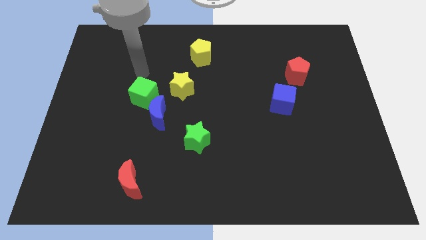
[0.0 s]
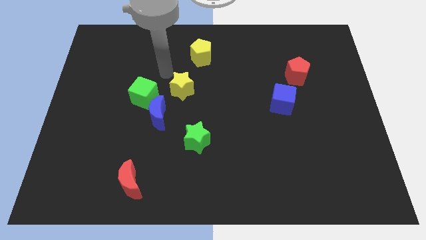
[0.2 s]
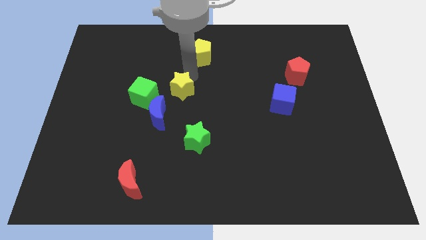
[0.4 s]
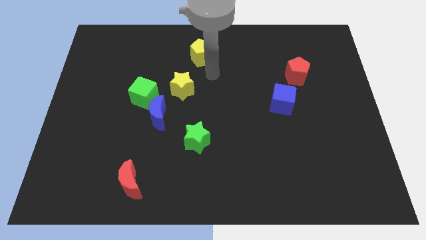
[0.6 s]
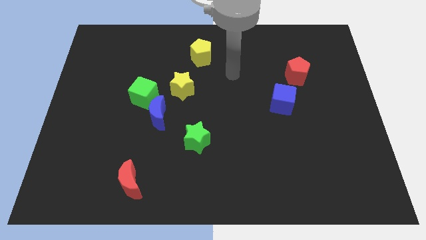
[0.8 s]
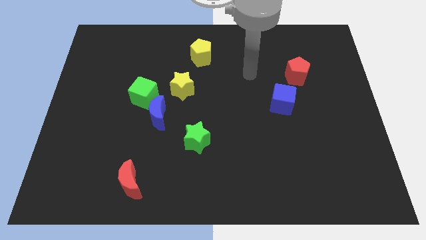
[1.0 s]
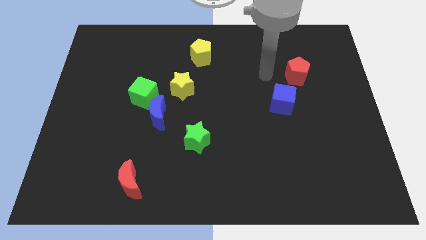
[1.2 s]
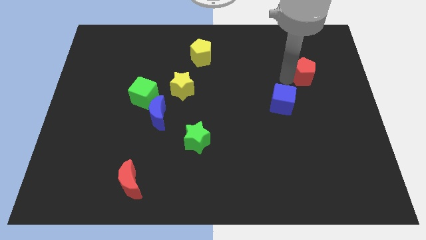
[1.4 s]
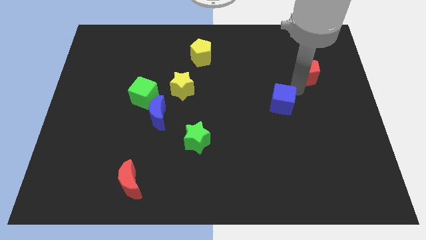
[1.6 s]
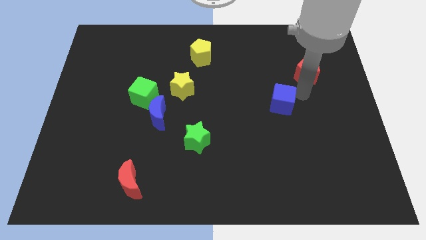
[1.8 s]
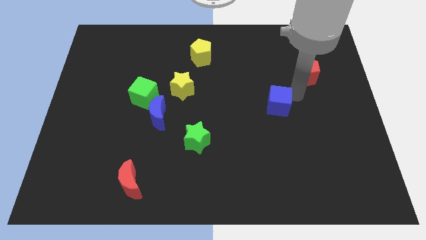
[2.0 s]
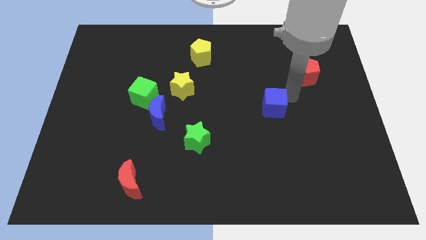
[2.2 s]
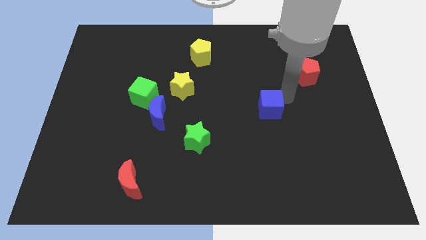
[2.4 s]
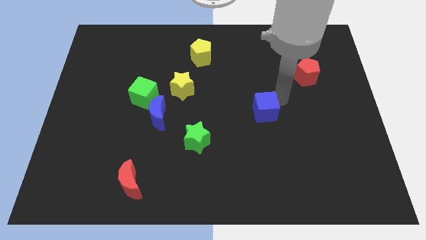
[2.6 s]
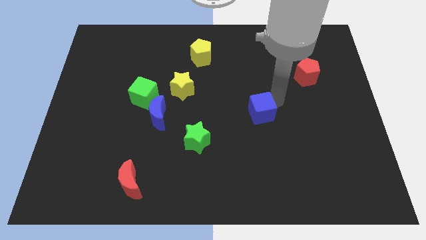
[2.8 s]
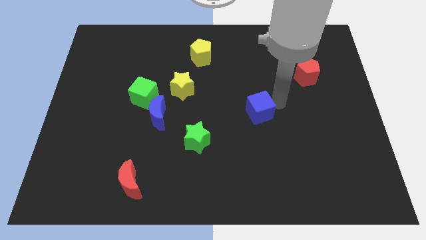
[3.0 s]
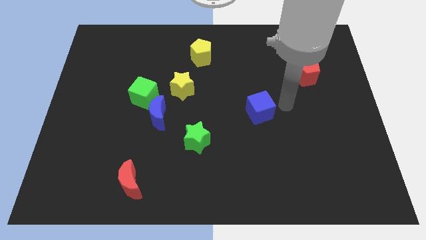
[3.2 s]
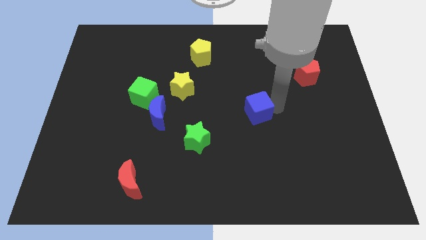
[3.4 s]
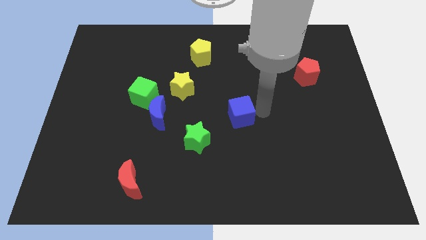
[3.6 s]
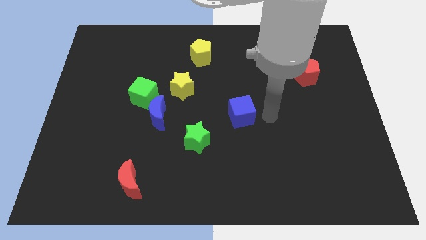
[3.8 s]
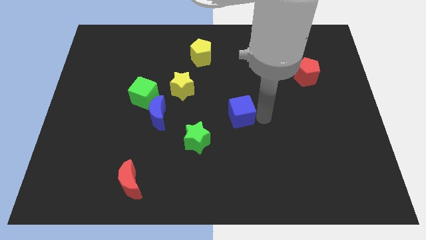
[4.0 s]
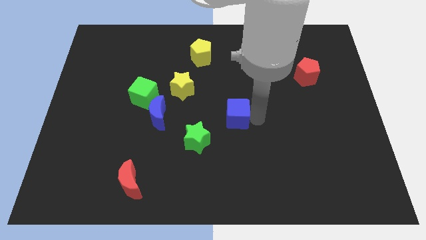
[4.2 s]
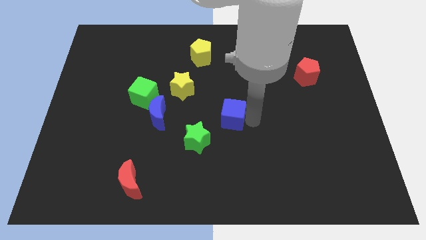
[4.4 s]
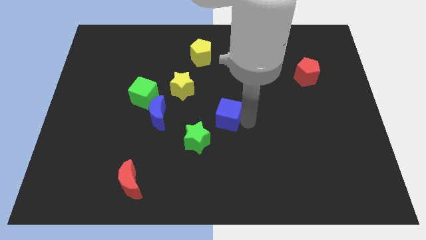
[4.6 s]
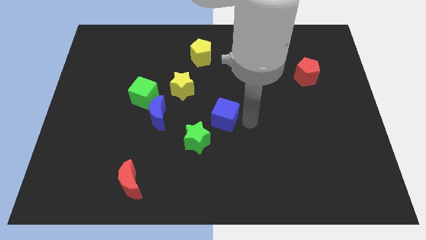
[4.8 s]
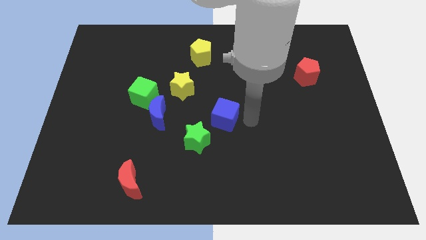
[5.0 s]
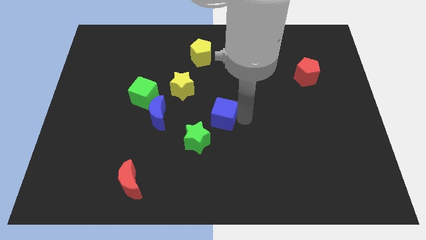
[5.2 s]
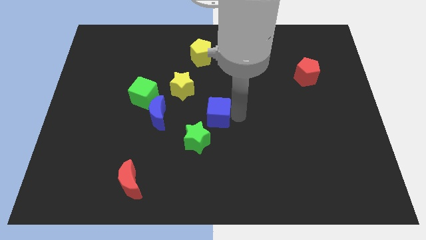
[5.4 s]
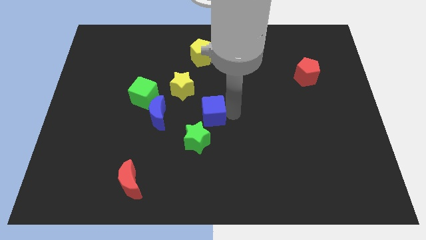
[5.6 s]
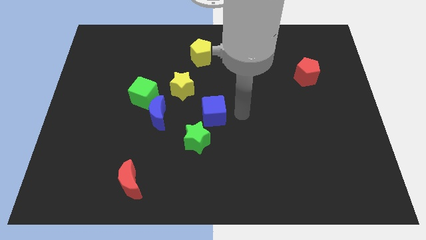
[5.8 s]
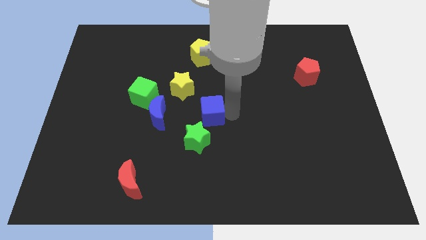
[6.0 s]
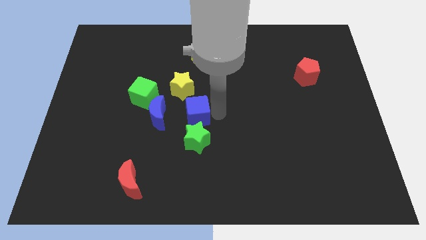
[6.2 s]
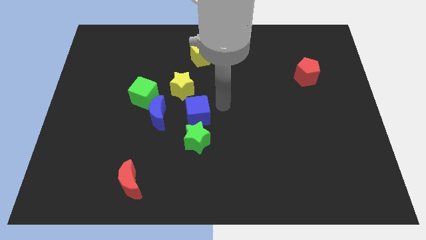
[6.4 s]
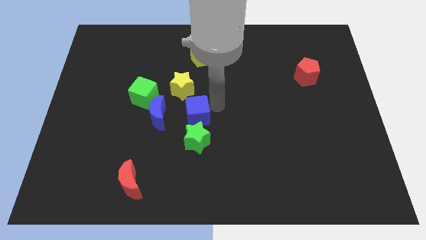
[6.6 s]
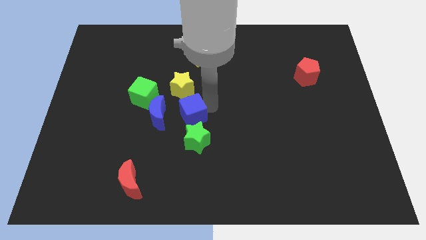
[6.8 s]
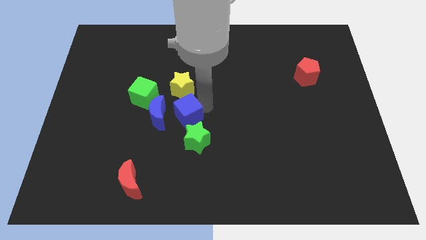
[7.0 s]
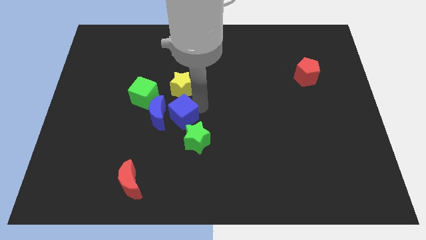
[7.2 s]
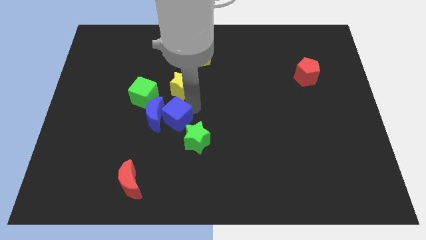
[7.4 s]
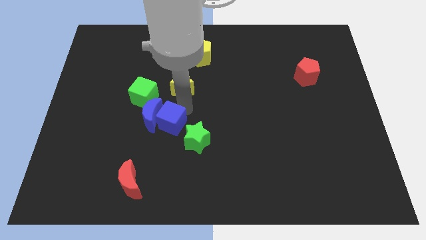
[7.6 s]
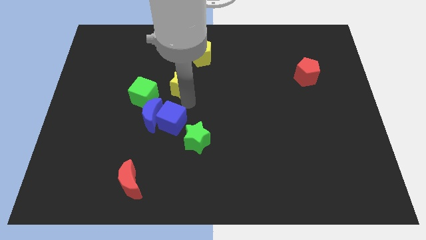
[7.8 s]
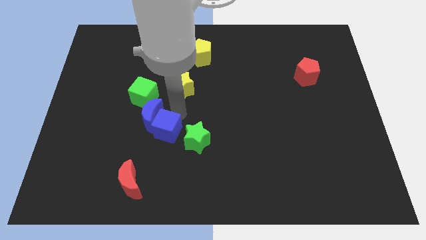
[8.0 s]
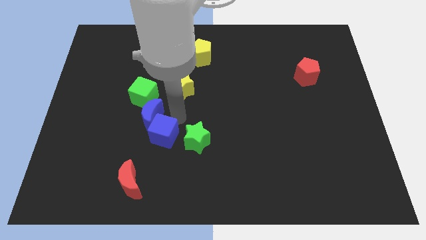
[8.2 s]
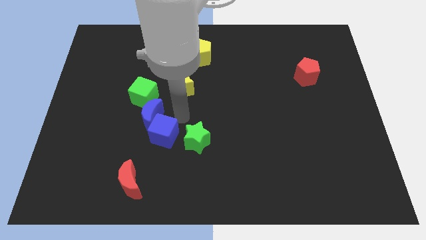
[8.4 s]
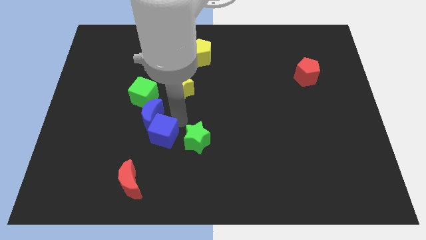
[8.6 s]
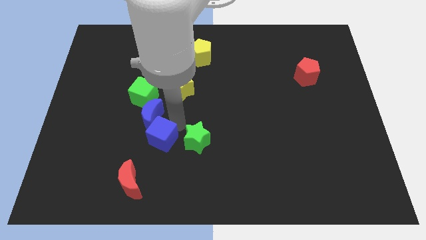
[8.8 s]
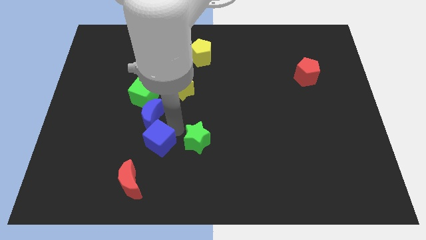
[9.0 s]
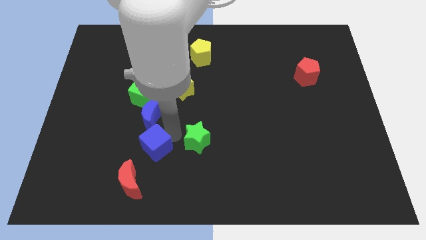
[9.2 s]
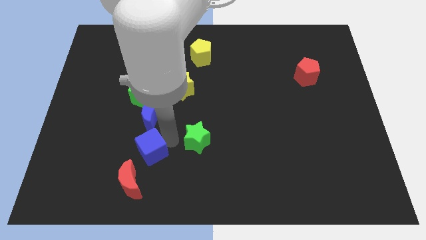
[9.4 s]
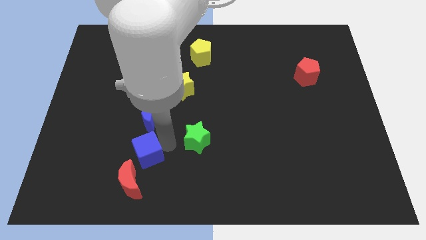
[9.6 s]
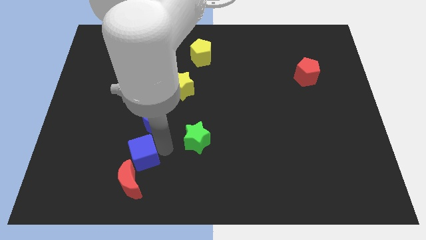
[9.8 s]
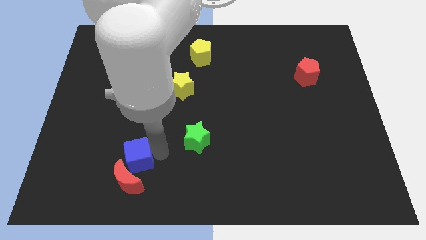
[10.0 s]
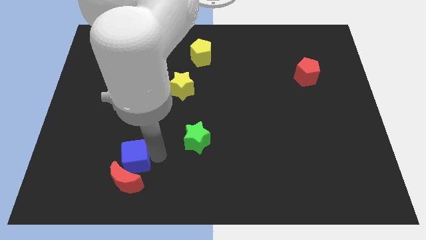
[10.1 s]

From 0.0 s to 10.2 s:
slide the blue cube diagonally up and to the left of the red moon

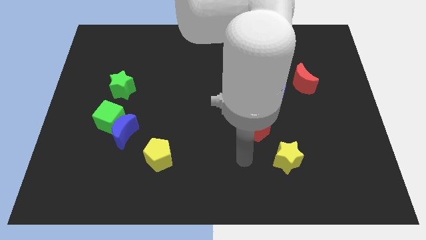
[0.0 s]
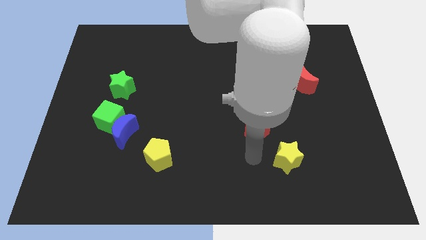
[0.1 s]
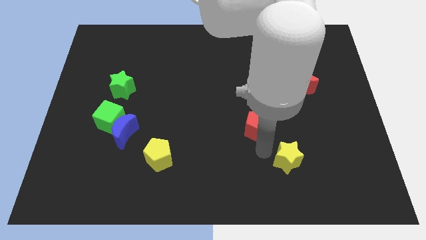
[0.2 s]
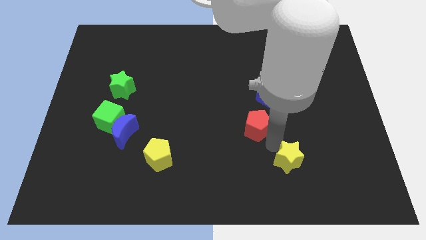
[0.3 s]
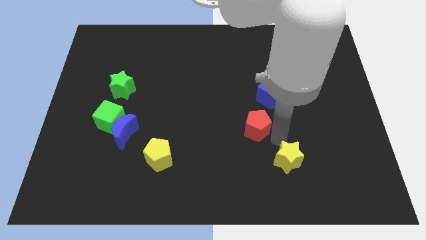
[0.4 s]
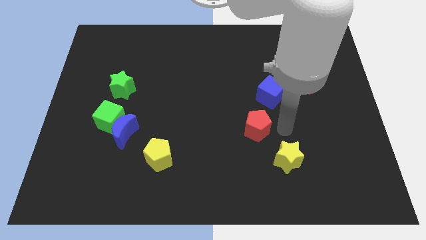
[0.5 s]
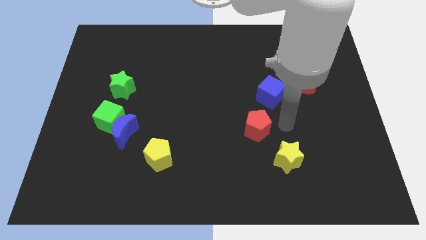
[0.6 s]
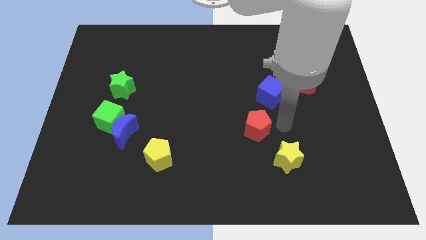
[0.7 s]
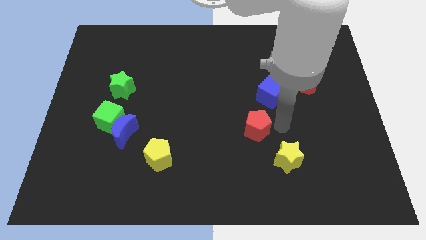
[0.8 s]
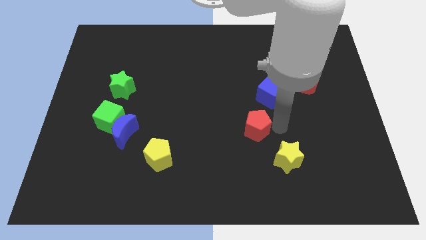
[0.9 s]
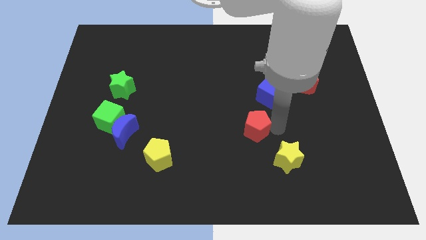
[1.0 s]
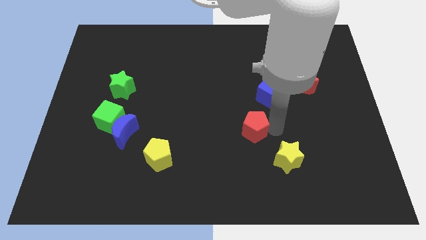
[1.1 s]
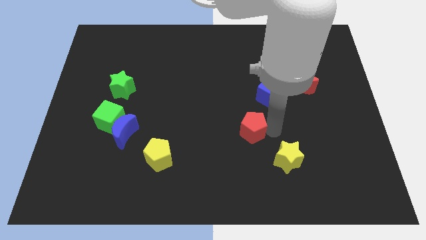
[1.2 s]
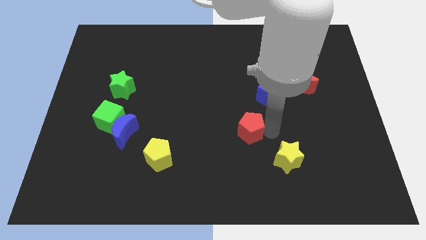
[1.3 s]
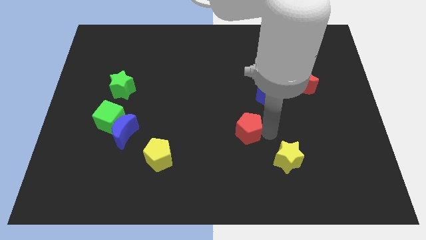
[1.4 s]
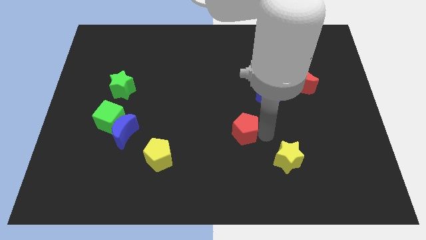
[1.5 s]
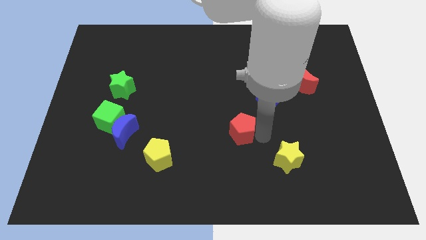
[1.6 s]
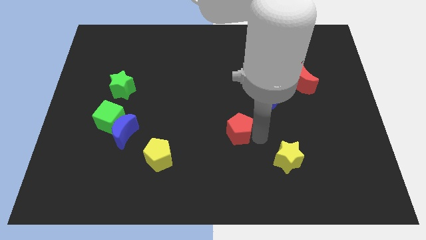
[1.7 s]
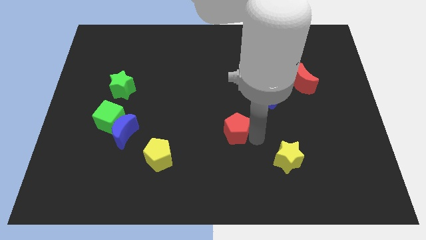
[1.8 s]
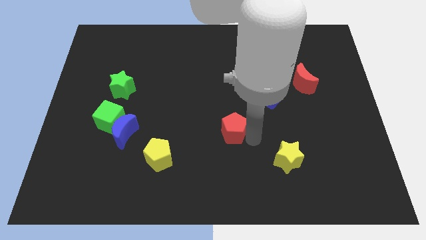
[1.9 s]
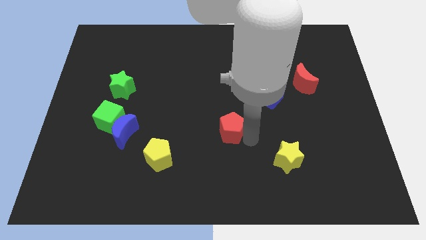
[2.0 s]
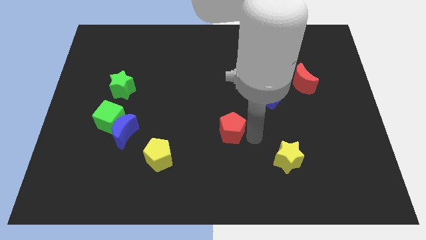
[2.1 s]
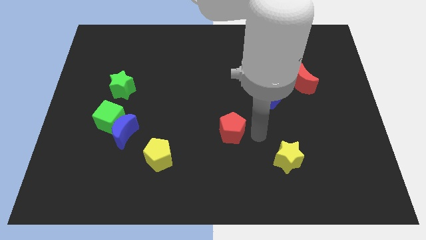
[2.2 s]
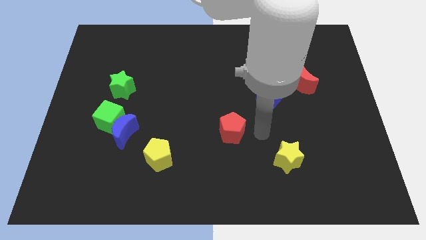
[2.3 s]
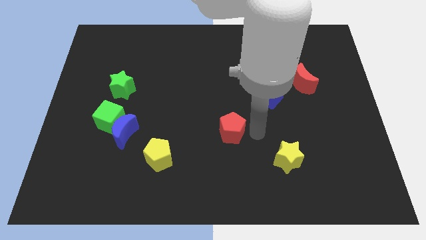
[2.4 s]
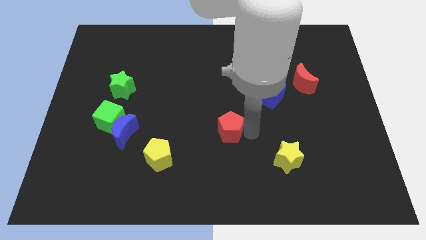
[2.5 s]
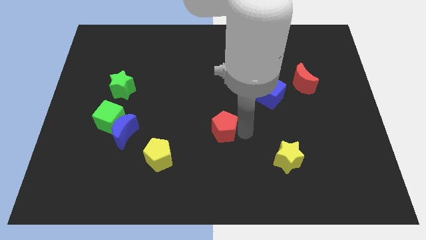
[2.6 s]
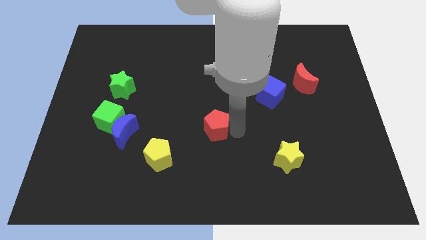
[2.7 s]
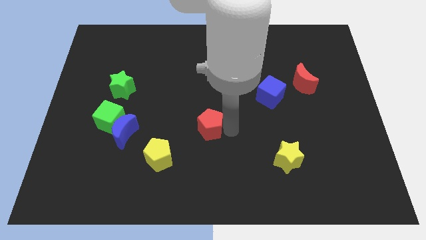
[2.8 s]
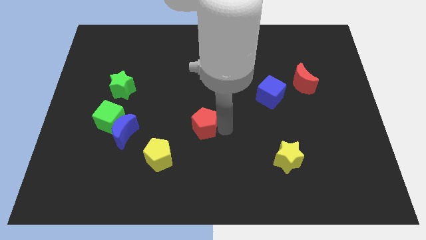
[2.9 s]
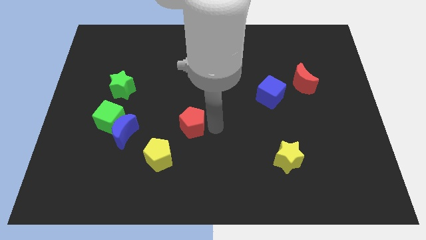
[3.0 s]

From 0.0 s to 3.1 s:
slide the red pentagon right of the blue moon
